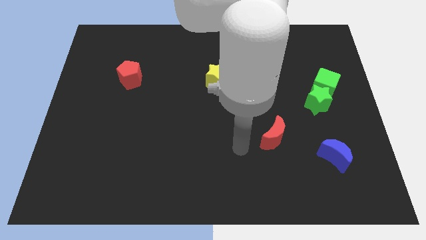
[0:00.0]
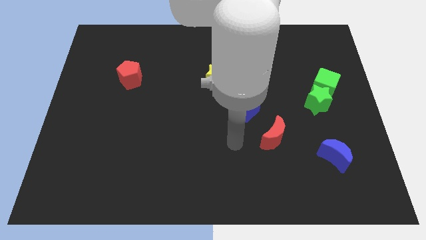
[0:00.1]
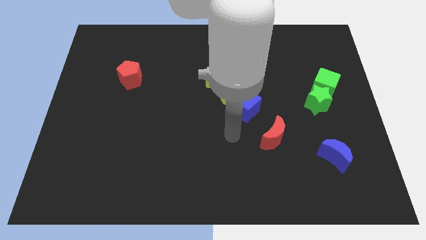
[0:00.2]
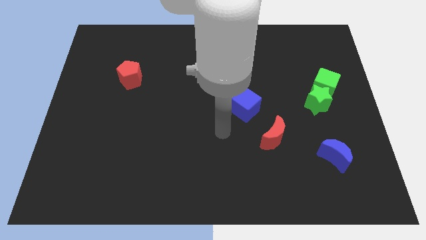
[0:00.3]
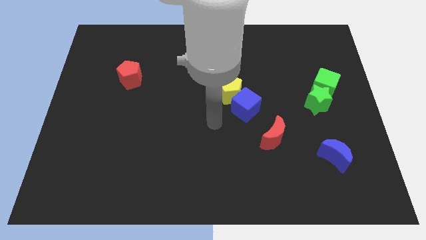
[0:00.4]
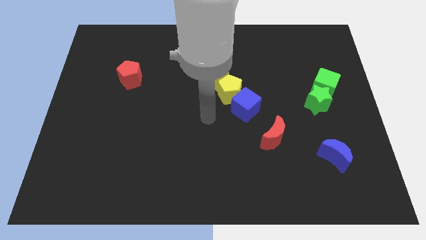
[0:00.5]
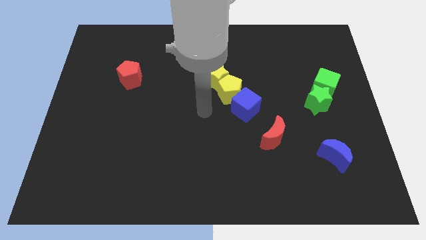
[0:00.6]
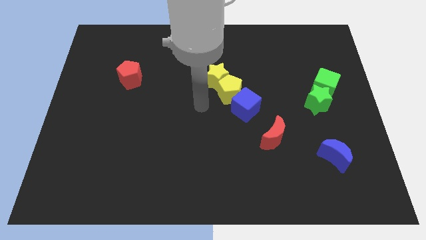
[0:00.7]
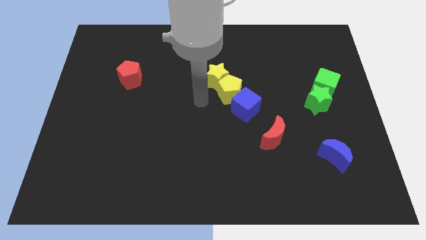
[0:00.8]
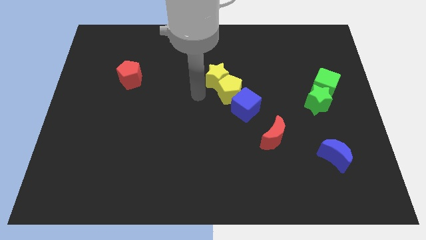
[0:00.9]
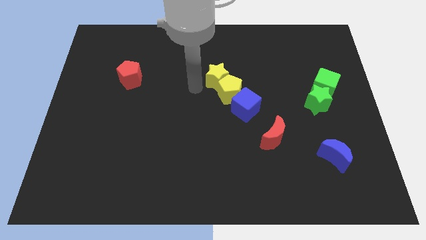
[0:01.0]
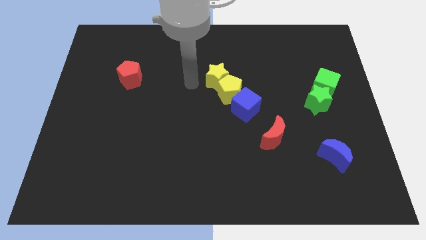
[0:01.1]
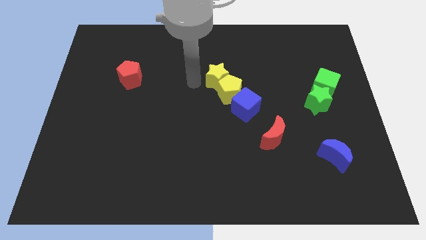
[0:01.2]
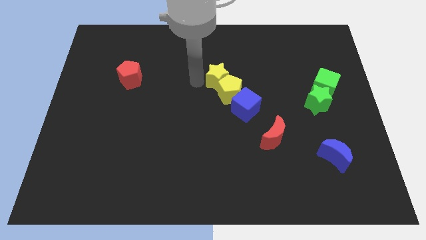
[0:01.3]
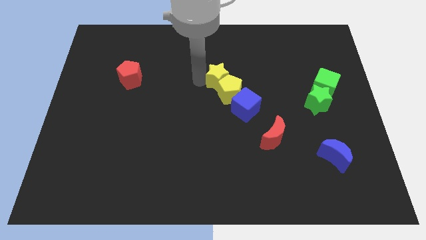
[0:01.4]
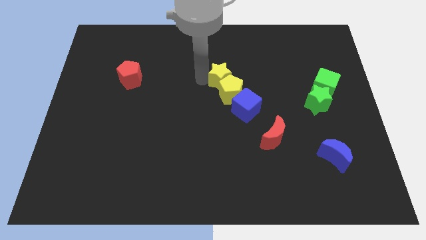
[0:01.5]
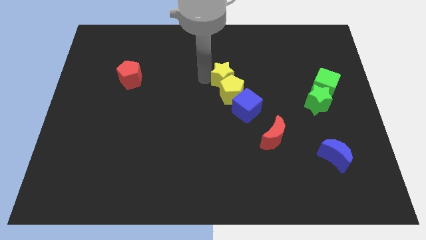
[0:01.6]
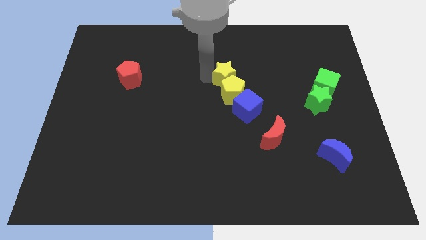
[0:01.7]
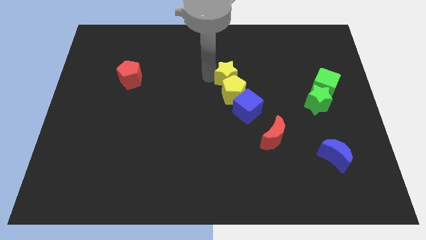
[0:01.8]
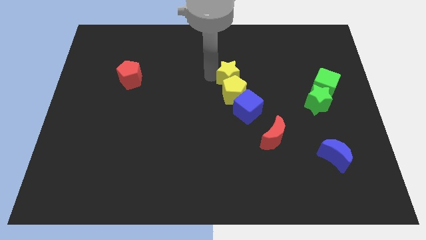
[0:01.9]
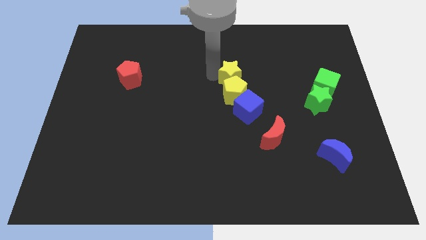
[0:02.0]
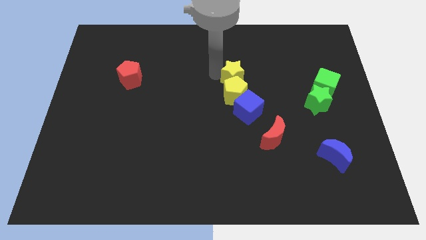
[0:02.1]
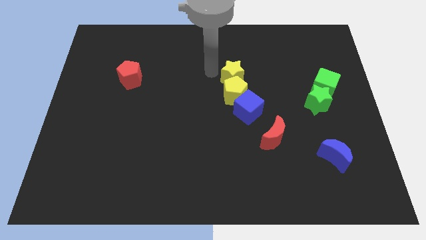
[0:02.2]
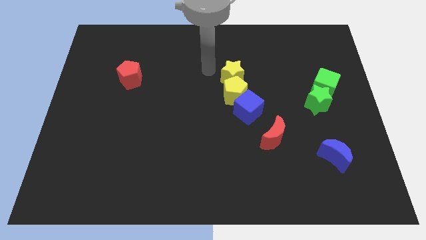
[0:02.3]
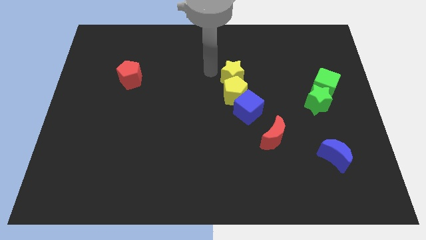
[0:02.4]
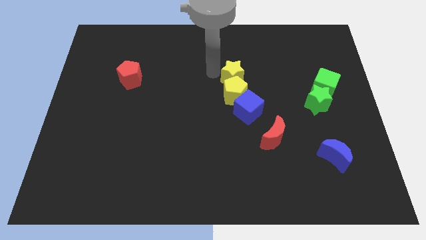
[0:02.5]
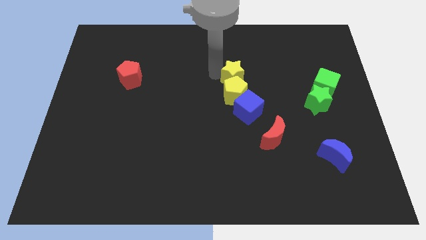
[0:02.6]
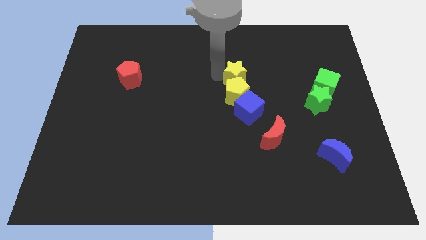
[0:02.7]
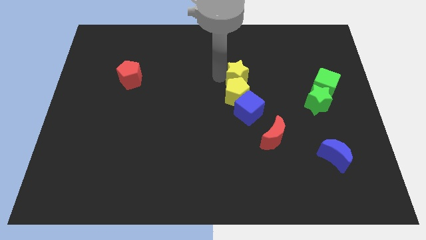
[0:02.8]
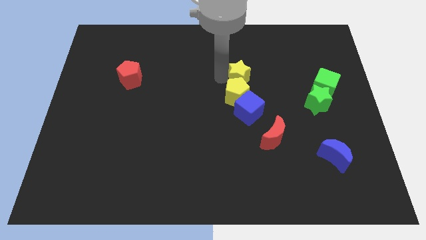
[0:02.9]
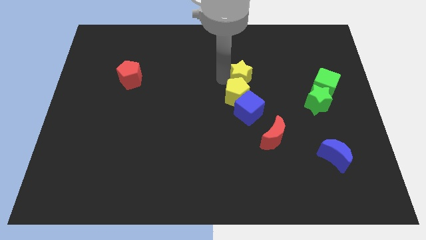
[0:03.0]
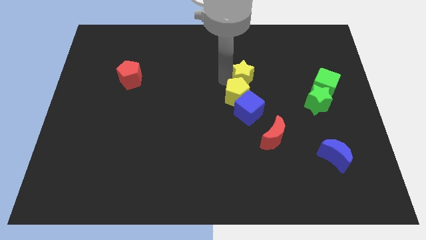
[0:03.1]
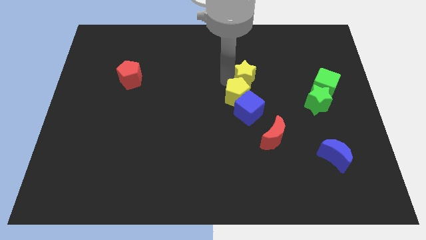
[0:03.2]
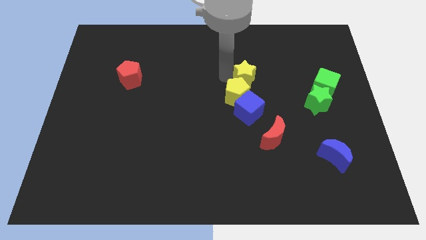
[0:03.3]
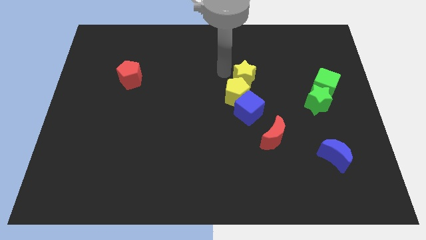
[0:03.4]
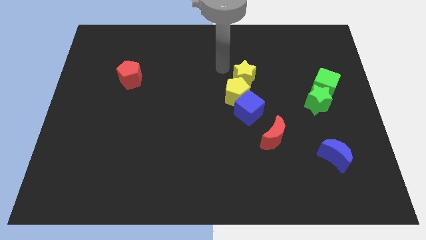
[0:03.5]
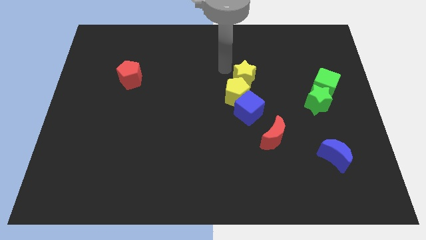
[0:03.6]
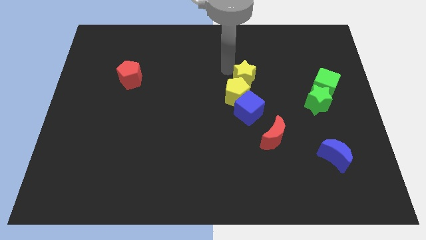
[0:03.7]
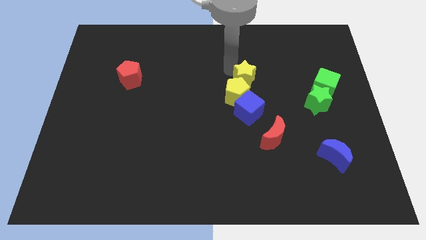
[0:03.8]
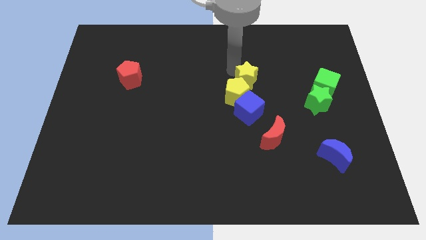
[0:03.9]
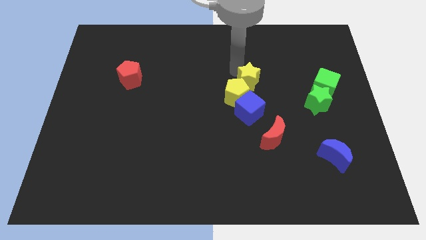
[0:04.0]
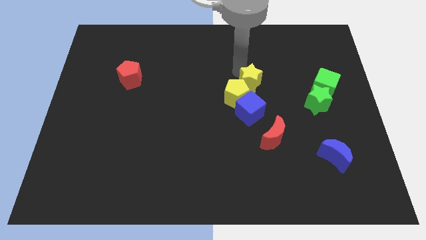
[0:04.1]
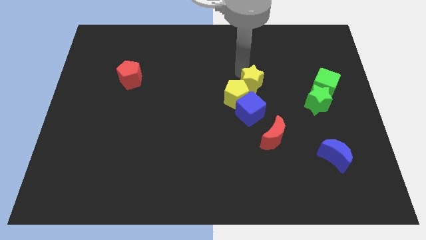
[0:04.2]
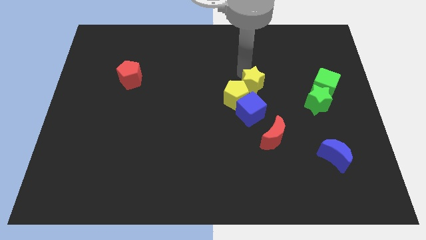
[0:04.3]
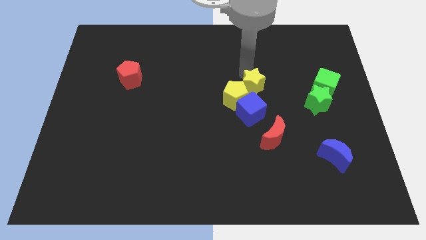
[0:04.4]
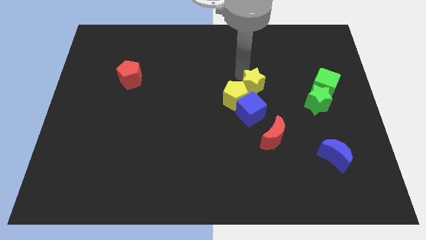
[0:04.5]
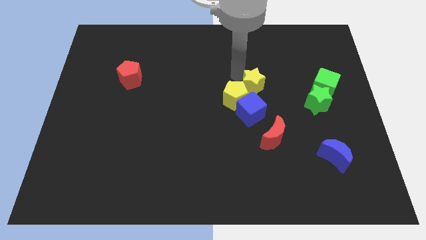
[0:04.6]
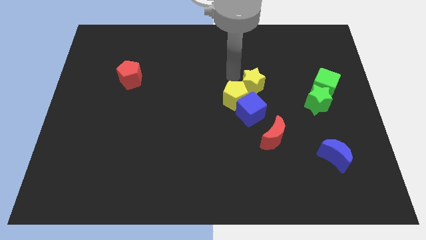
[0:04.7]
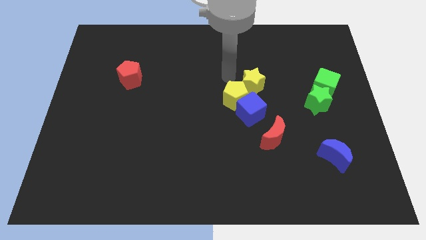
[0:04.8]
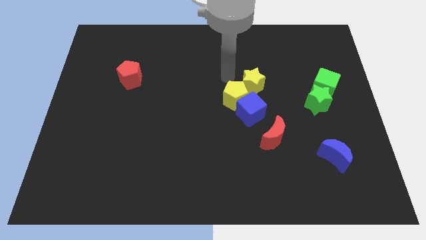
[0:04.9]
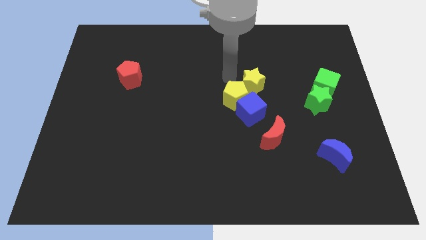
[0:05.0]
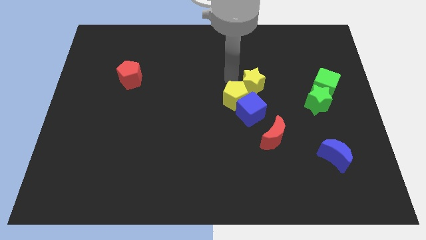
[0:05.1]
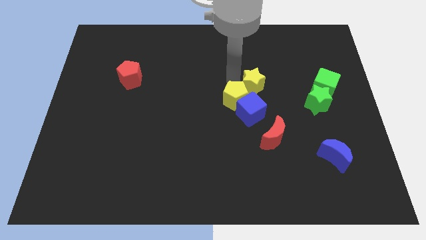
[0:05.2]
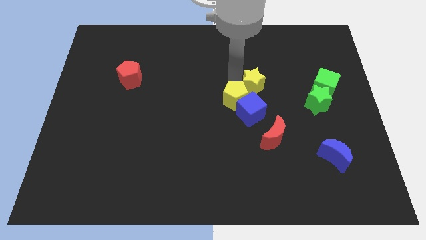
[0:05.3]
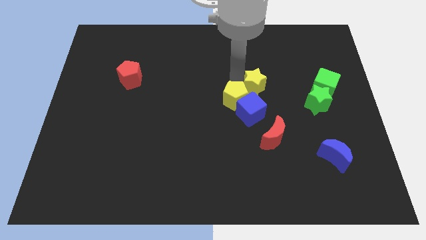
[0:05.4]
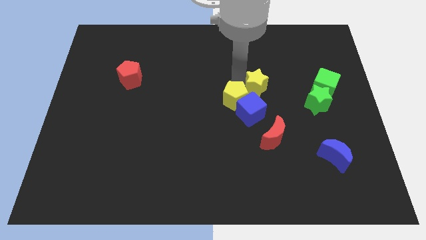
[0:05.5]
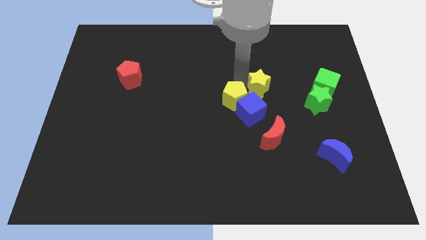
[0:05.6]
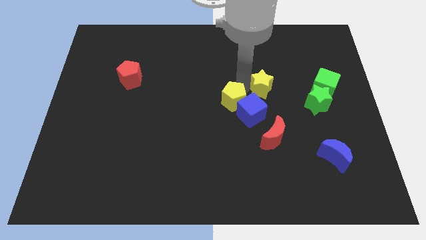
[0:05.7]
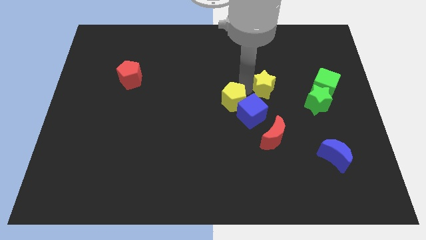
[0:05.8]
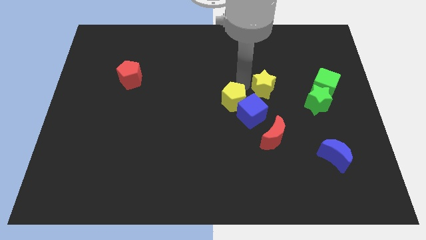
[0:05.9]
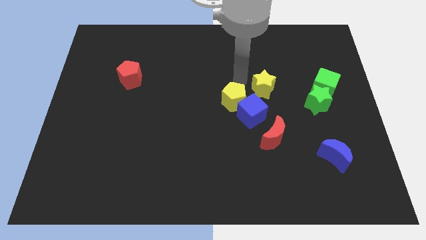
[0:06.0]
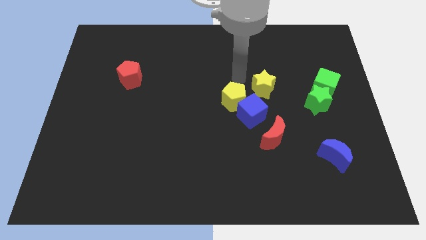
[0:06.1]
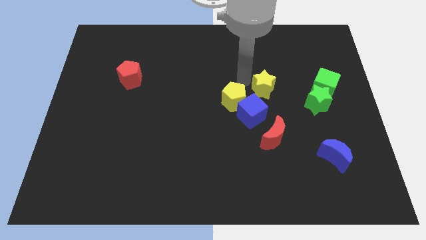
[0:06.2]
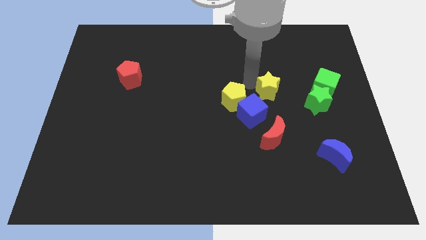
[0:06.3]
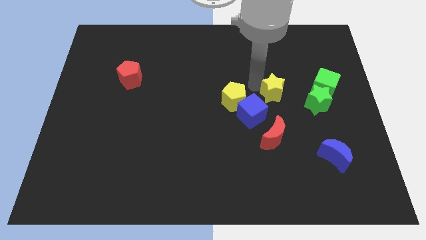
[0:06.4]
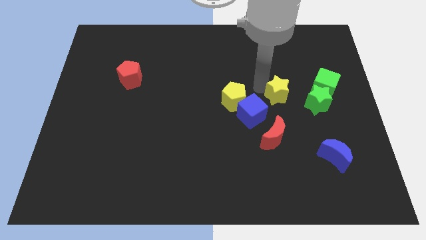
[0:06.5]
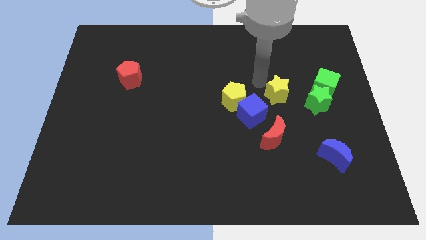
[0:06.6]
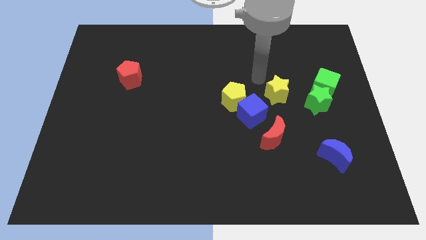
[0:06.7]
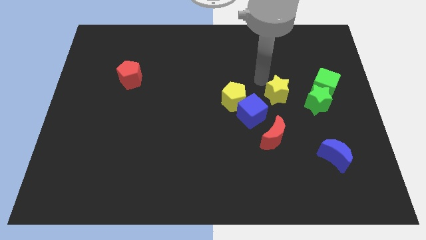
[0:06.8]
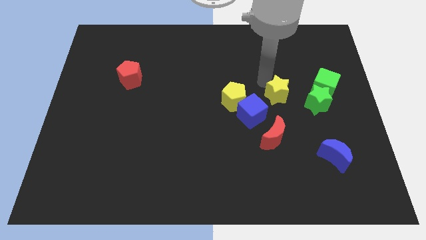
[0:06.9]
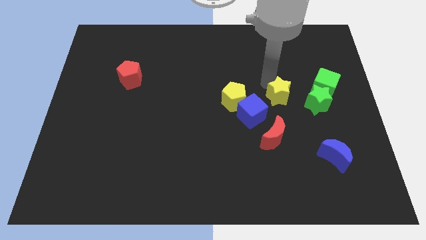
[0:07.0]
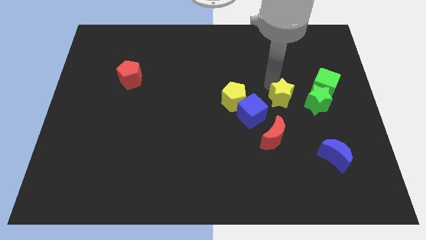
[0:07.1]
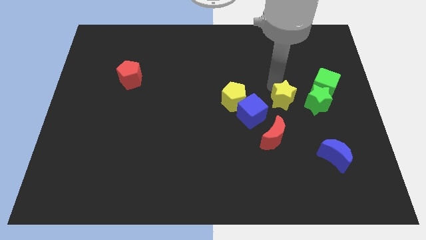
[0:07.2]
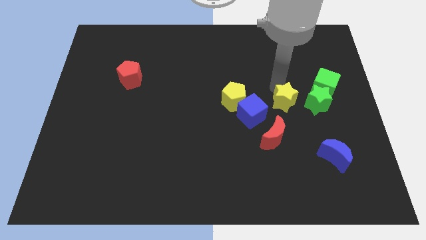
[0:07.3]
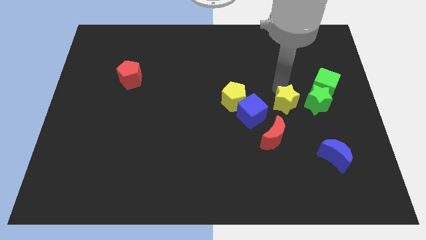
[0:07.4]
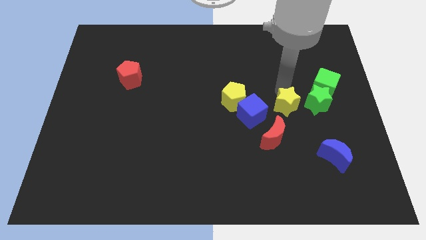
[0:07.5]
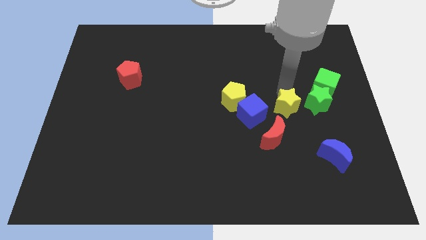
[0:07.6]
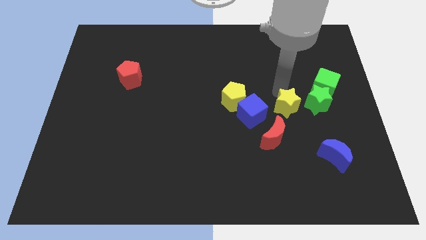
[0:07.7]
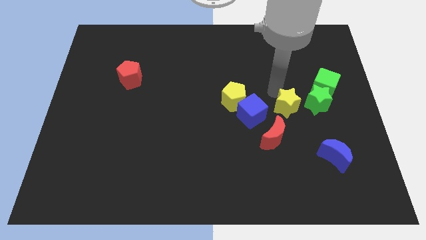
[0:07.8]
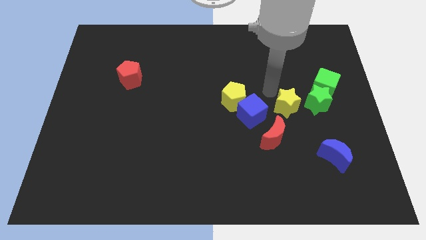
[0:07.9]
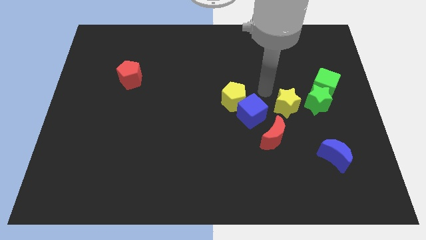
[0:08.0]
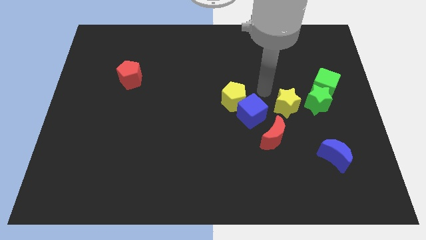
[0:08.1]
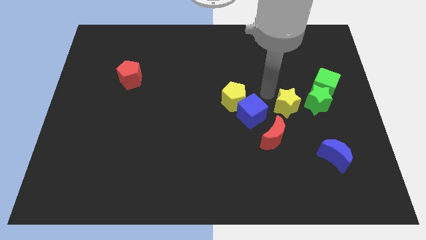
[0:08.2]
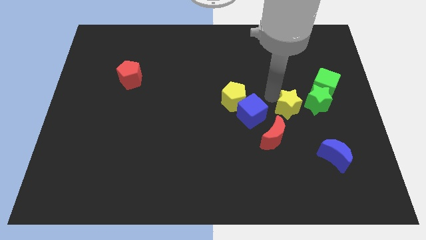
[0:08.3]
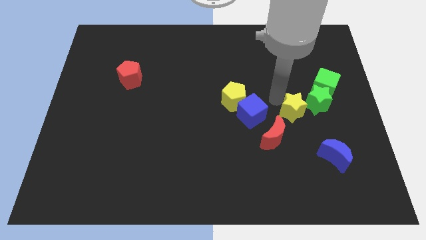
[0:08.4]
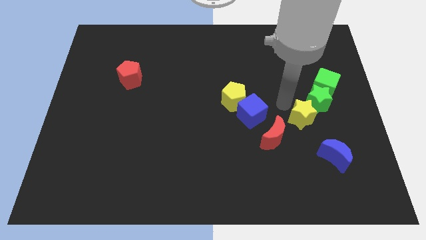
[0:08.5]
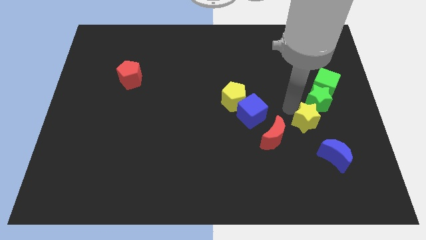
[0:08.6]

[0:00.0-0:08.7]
push the yellow star to the right side of the red moon
